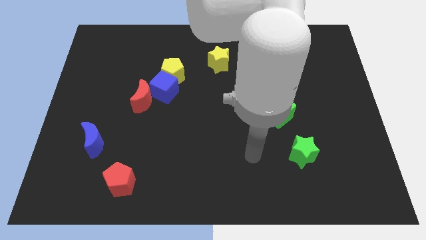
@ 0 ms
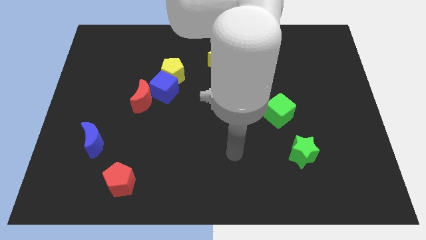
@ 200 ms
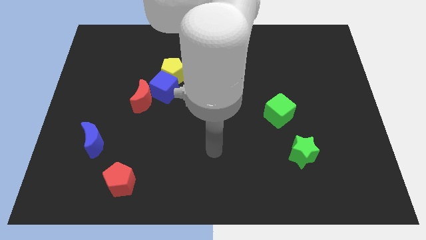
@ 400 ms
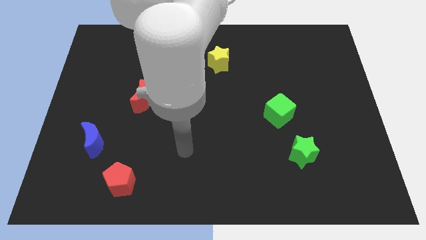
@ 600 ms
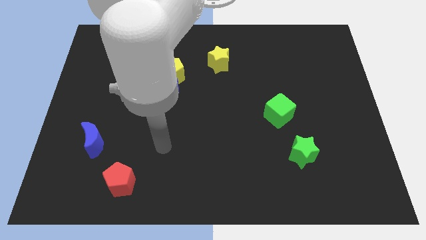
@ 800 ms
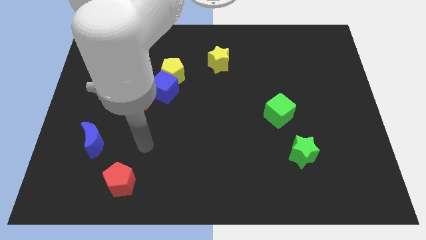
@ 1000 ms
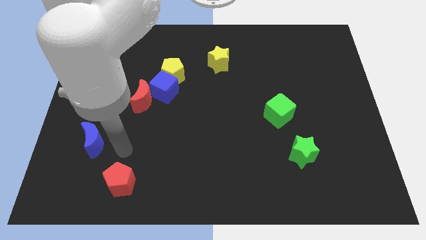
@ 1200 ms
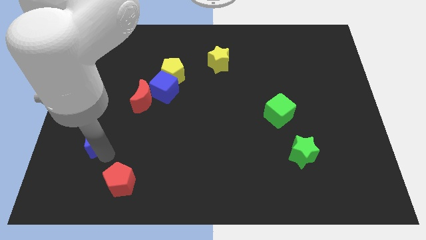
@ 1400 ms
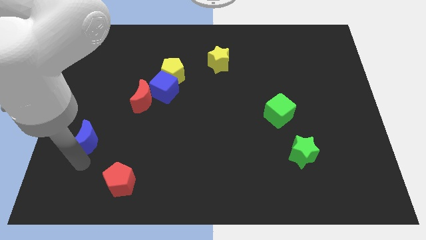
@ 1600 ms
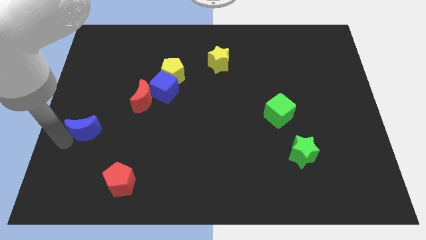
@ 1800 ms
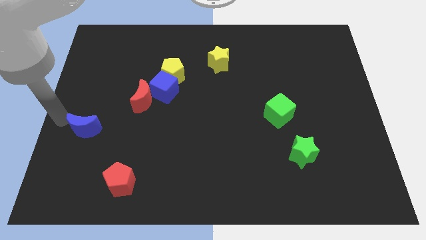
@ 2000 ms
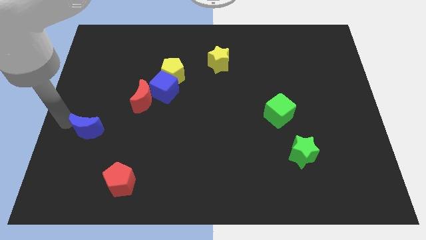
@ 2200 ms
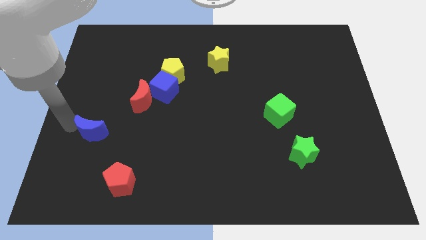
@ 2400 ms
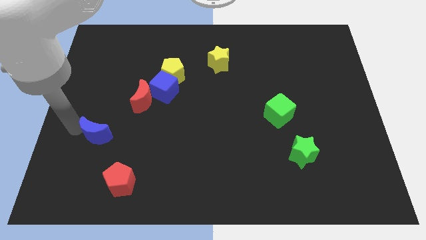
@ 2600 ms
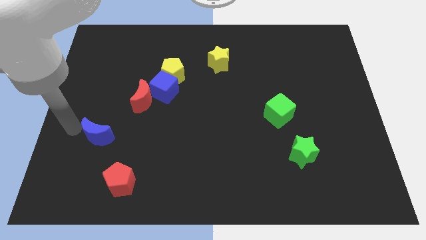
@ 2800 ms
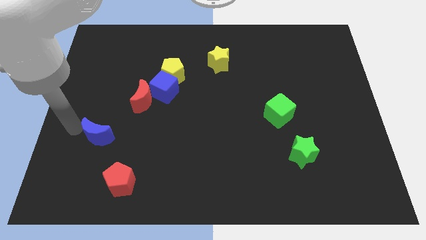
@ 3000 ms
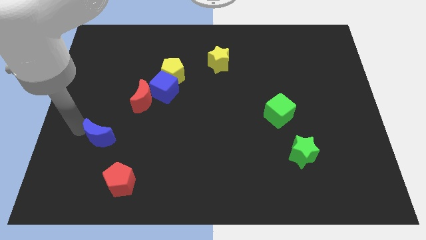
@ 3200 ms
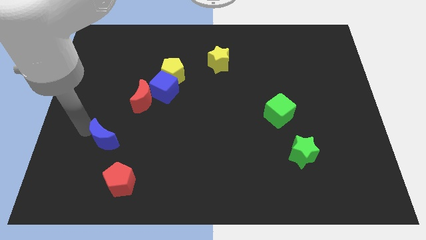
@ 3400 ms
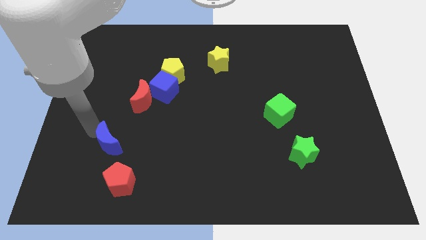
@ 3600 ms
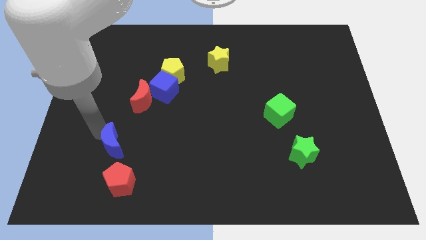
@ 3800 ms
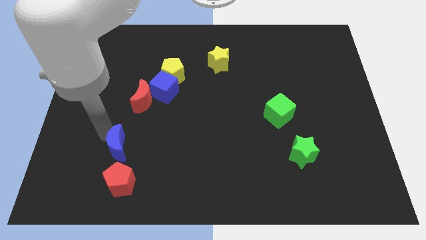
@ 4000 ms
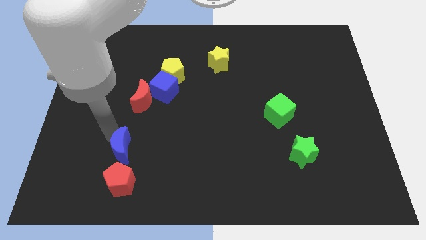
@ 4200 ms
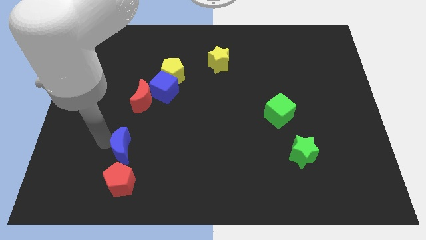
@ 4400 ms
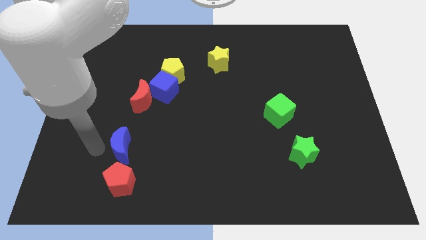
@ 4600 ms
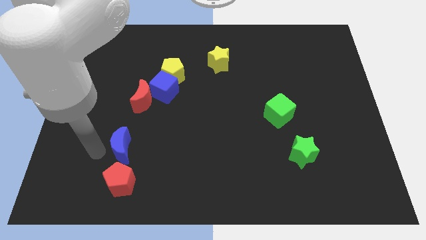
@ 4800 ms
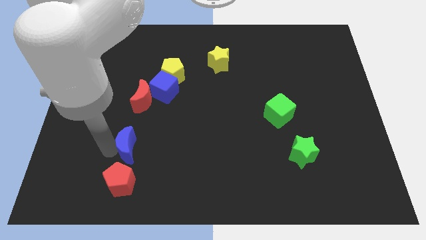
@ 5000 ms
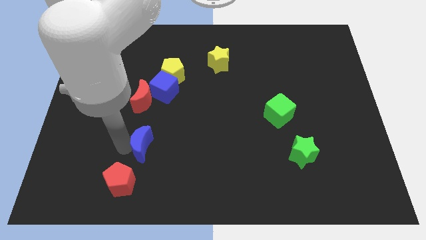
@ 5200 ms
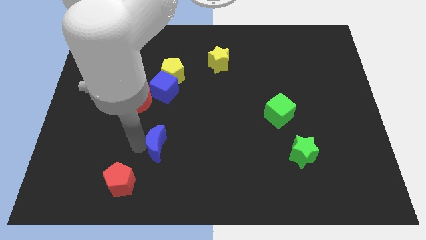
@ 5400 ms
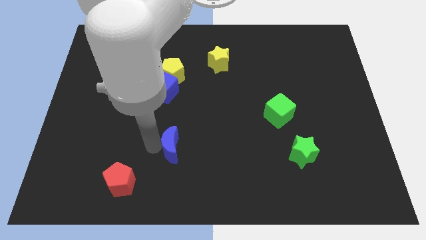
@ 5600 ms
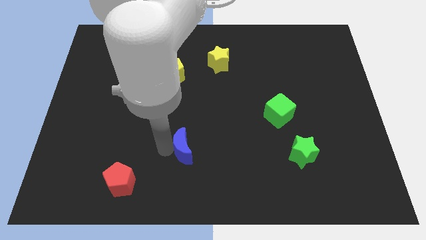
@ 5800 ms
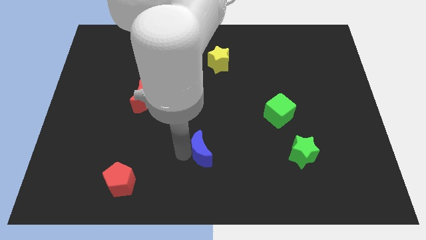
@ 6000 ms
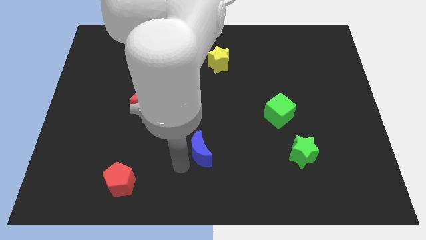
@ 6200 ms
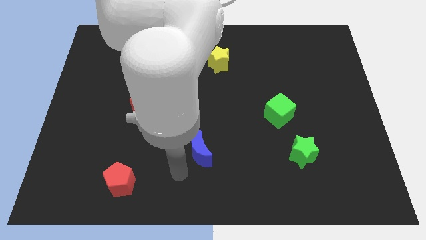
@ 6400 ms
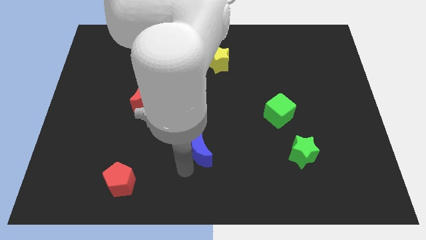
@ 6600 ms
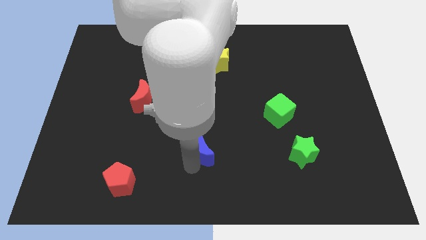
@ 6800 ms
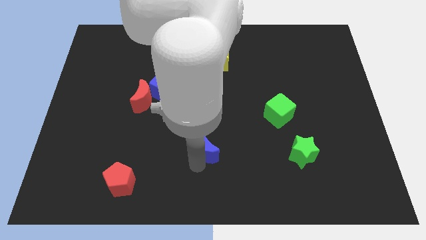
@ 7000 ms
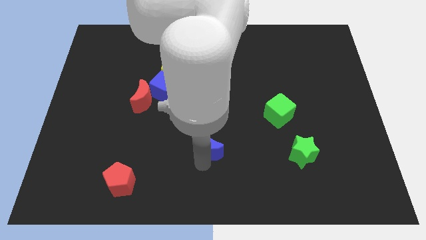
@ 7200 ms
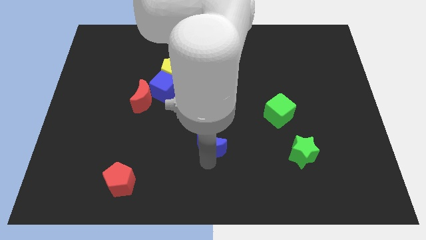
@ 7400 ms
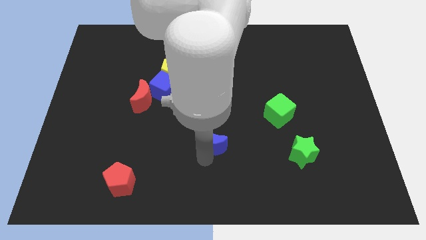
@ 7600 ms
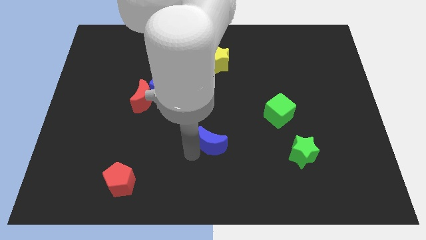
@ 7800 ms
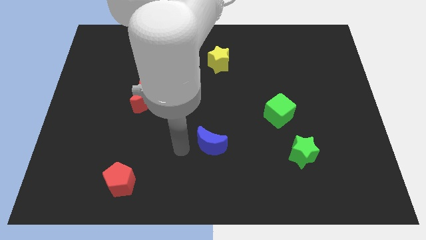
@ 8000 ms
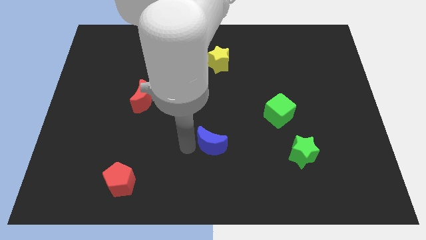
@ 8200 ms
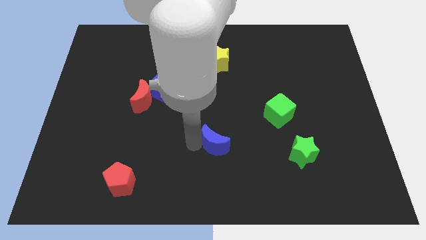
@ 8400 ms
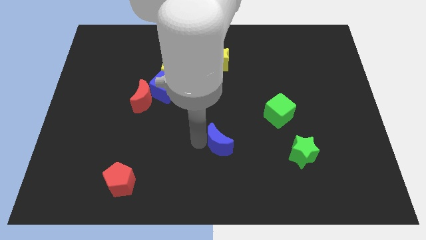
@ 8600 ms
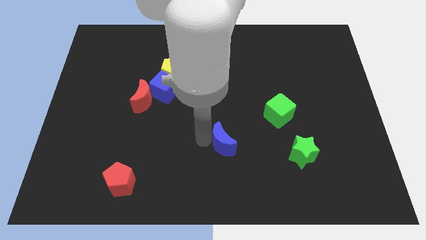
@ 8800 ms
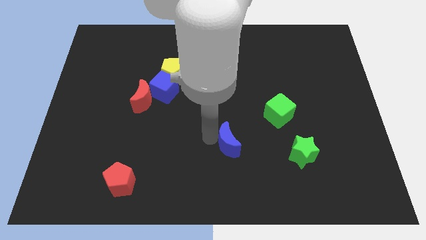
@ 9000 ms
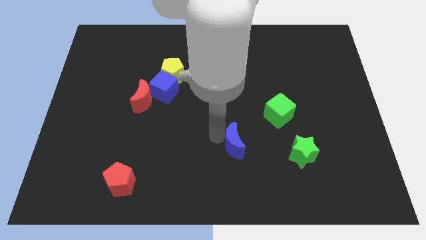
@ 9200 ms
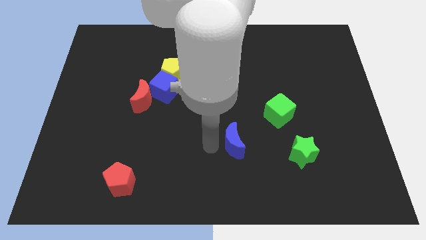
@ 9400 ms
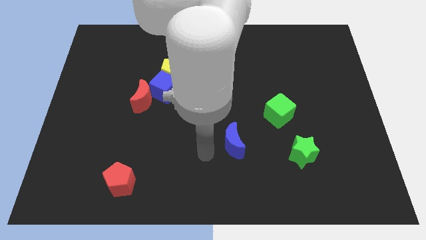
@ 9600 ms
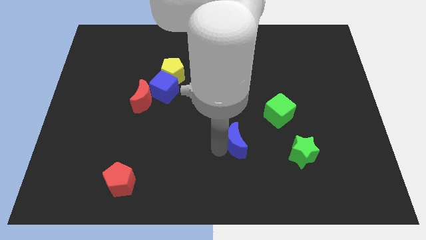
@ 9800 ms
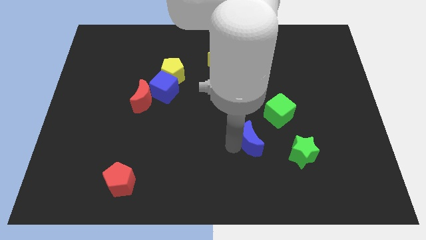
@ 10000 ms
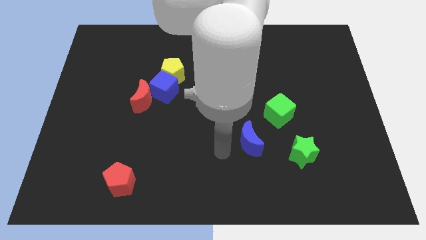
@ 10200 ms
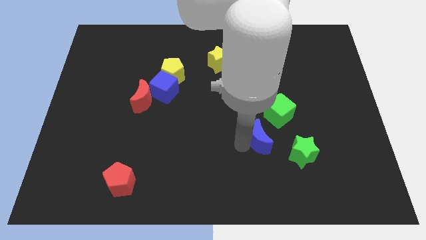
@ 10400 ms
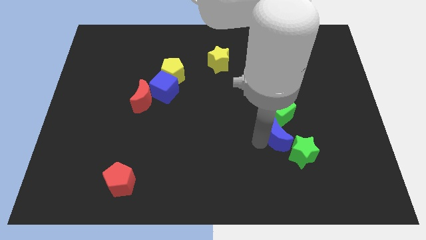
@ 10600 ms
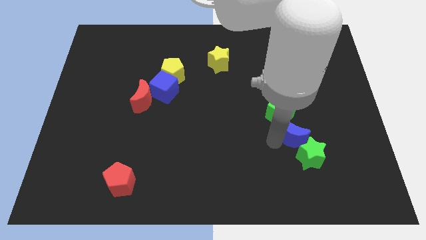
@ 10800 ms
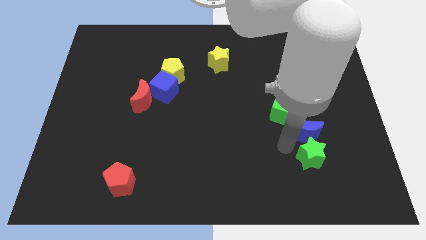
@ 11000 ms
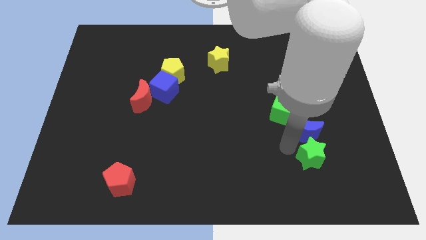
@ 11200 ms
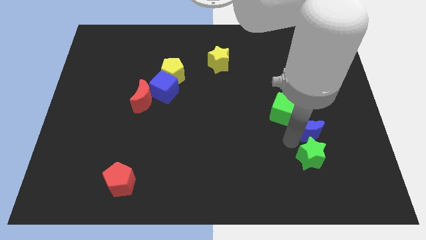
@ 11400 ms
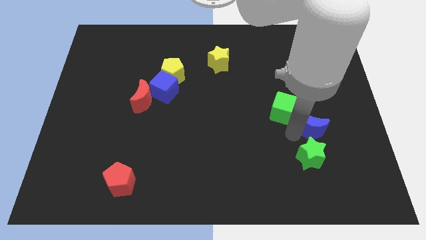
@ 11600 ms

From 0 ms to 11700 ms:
slide the blue moon to the right side of the green cube

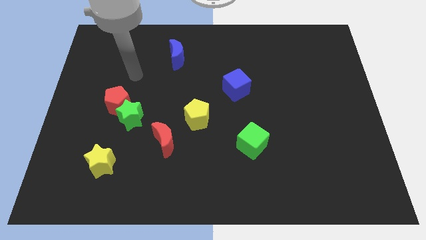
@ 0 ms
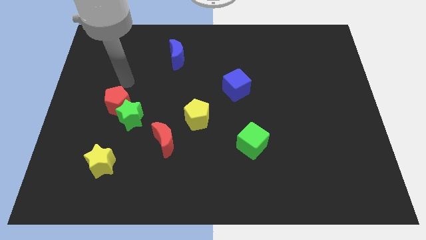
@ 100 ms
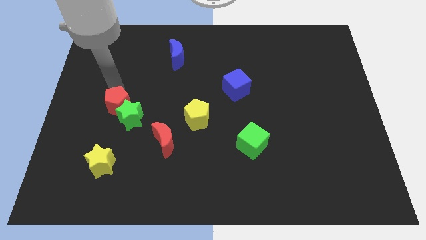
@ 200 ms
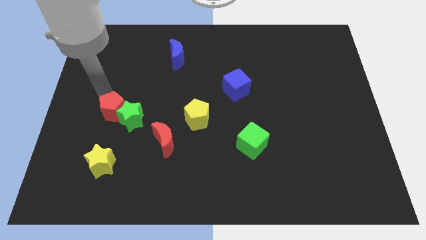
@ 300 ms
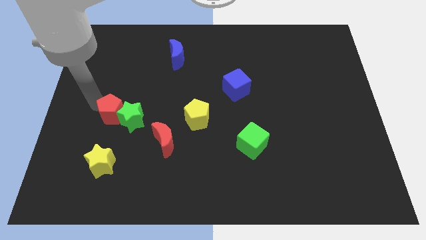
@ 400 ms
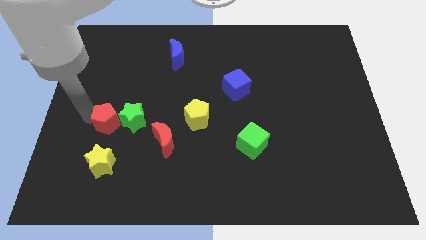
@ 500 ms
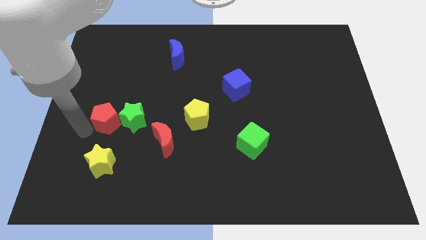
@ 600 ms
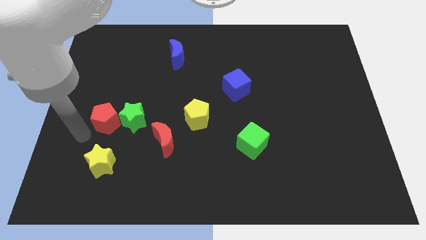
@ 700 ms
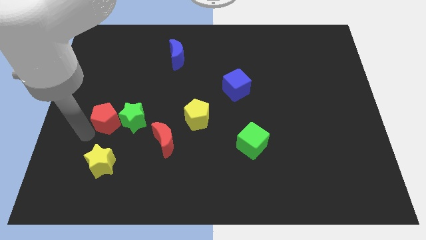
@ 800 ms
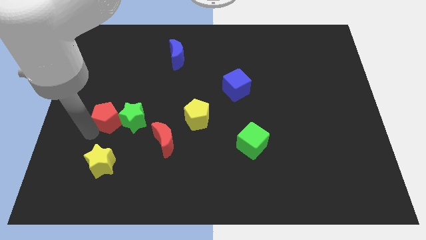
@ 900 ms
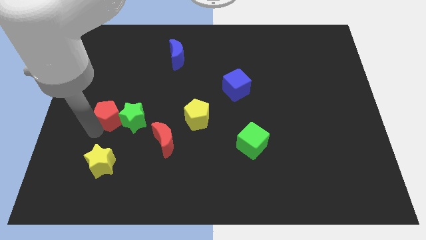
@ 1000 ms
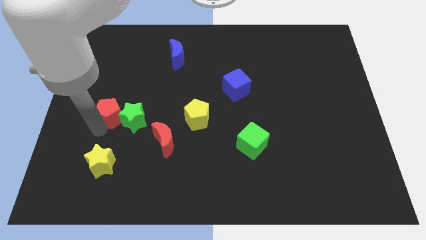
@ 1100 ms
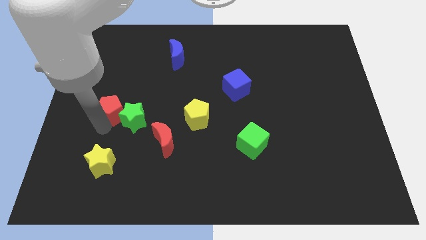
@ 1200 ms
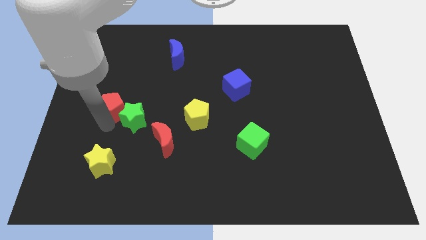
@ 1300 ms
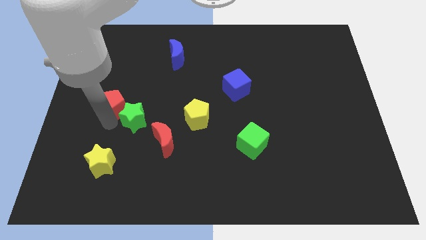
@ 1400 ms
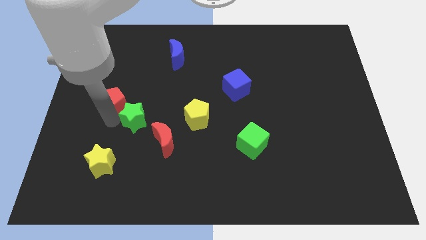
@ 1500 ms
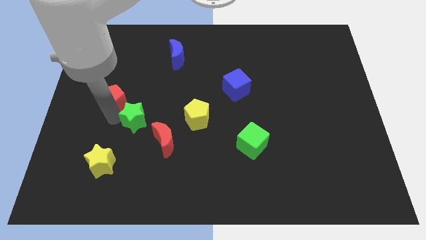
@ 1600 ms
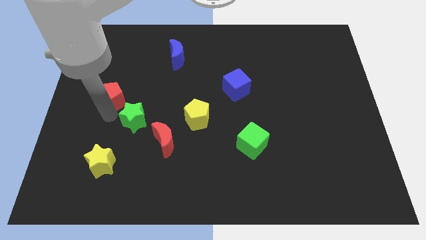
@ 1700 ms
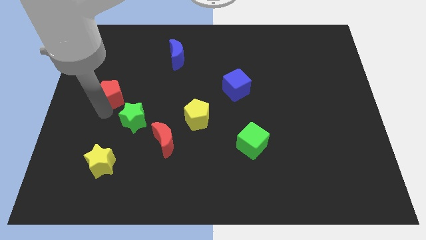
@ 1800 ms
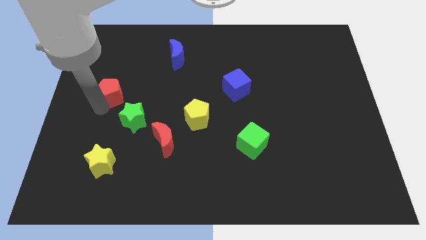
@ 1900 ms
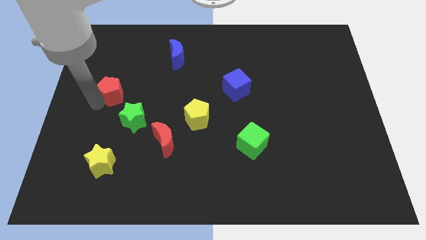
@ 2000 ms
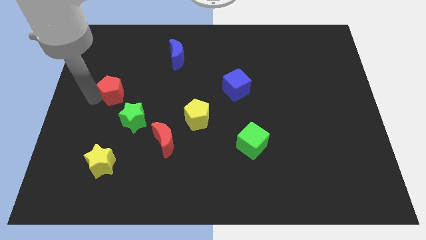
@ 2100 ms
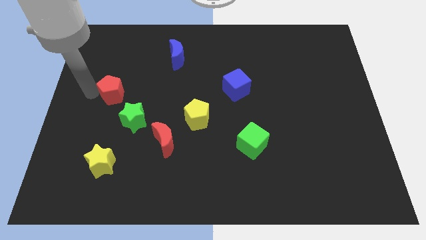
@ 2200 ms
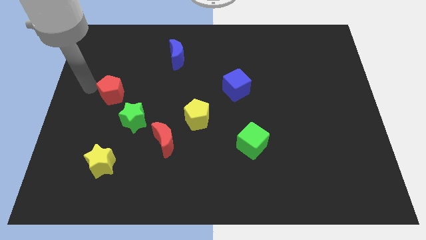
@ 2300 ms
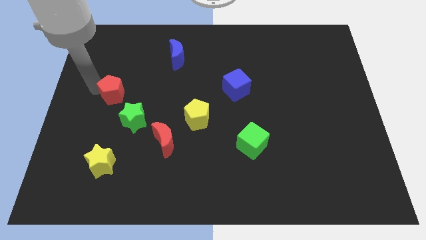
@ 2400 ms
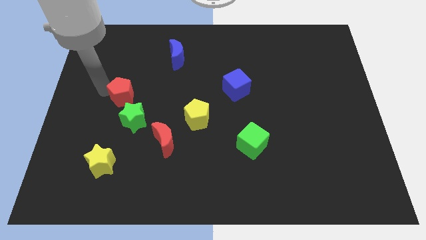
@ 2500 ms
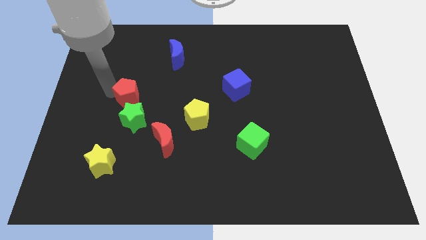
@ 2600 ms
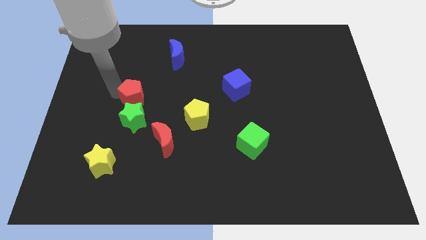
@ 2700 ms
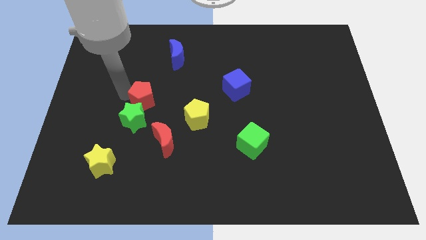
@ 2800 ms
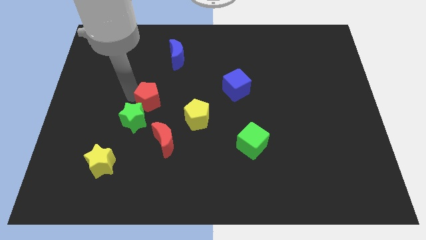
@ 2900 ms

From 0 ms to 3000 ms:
slide the red pentagon to the top of the red moon
